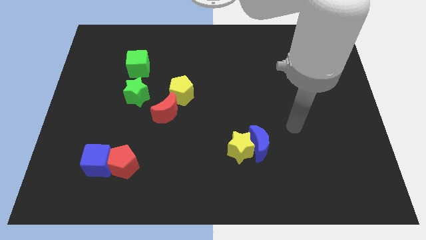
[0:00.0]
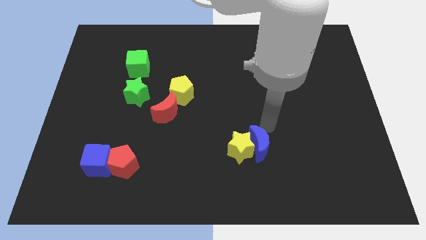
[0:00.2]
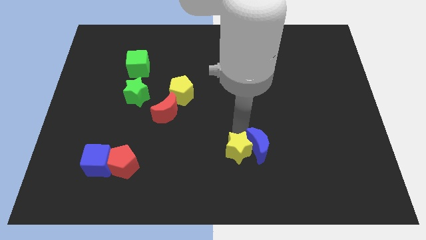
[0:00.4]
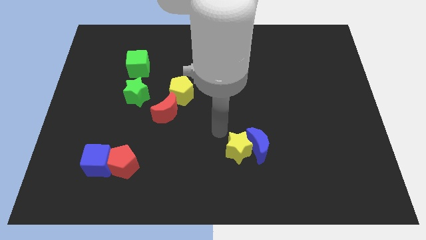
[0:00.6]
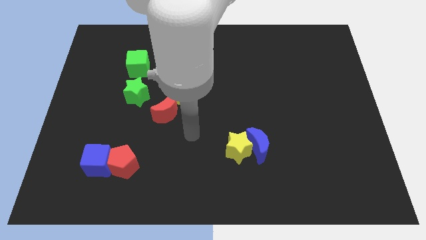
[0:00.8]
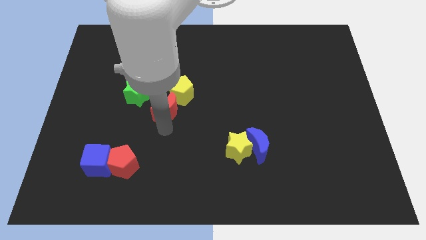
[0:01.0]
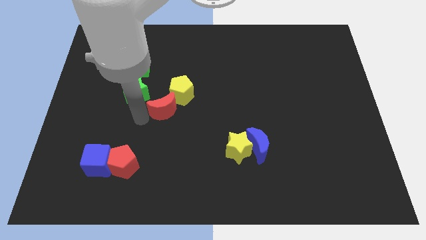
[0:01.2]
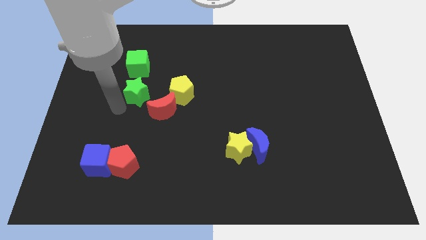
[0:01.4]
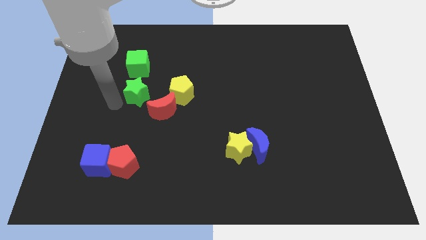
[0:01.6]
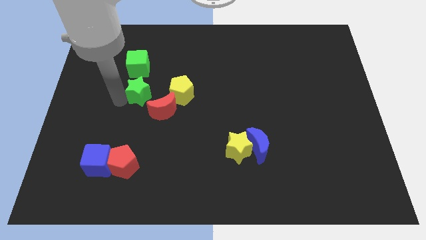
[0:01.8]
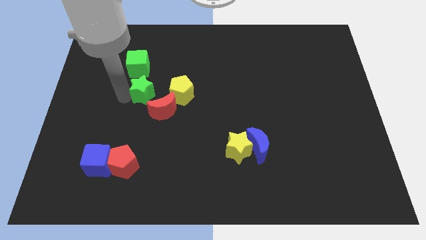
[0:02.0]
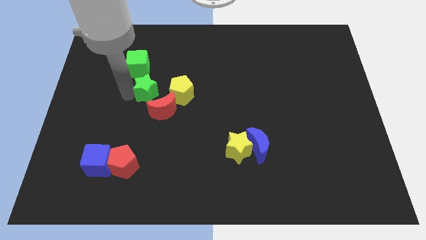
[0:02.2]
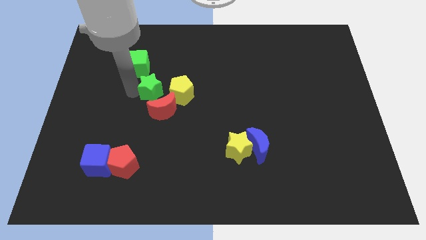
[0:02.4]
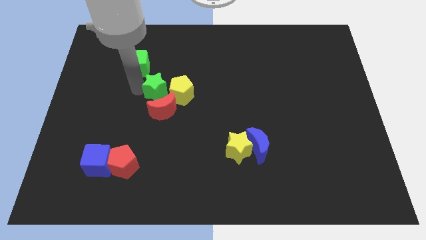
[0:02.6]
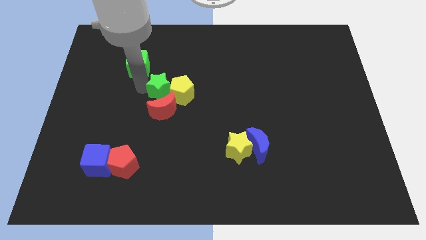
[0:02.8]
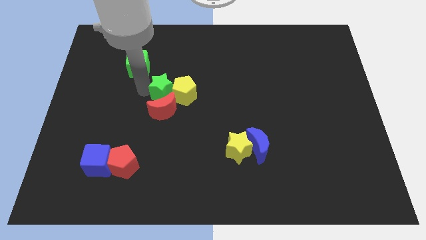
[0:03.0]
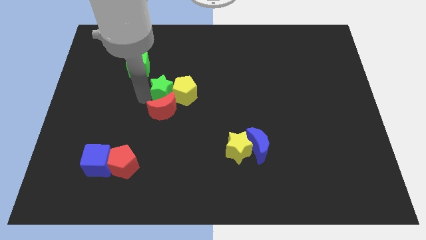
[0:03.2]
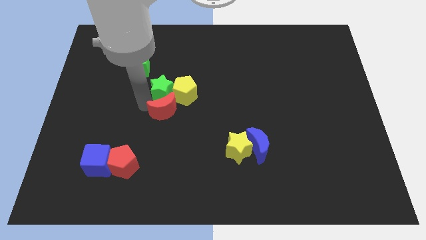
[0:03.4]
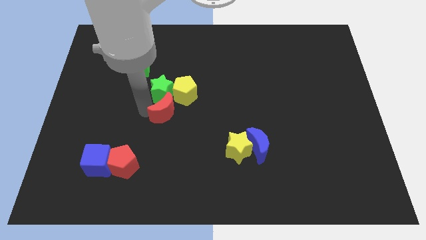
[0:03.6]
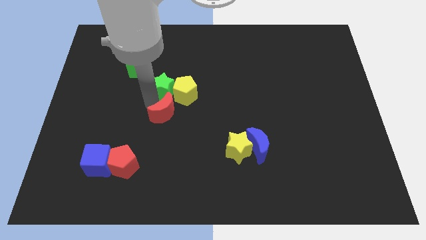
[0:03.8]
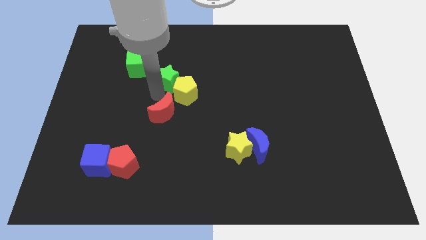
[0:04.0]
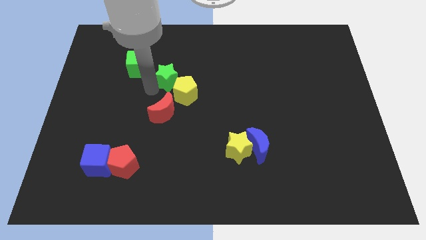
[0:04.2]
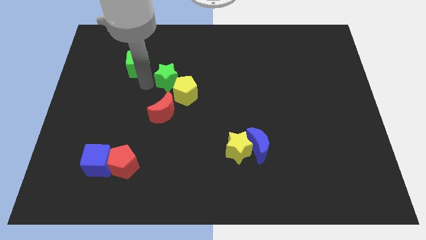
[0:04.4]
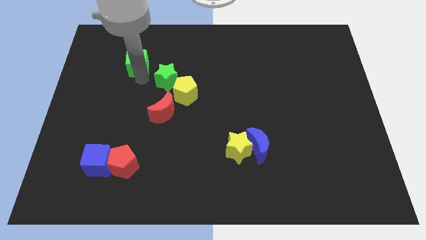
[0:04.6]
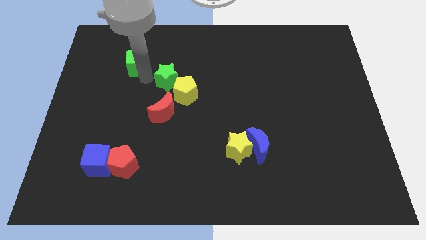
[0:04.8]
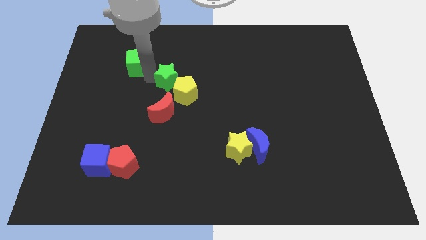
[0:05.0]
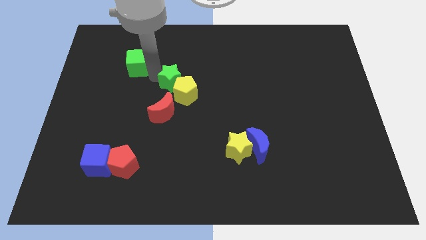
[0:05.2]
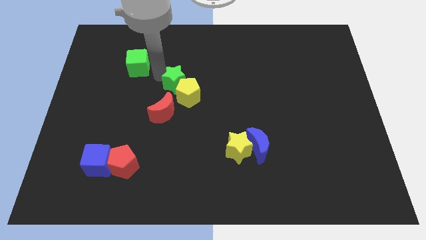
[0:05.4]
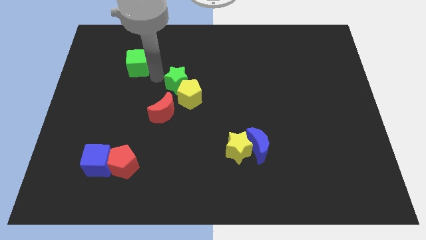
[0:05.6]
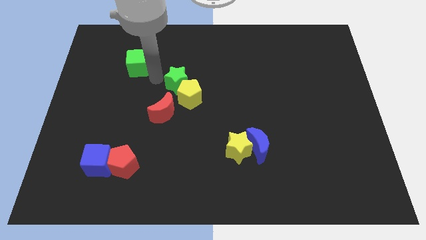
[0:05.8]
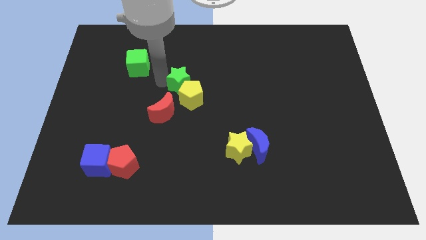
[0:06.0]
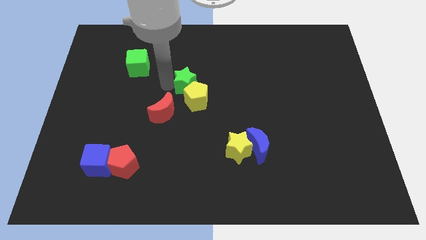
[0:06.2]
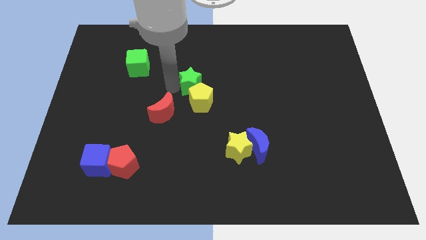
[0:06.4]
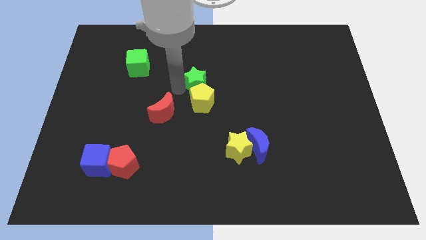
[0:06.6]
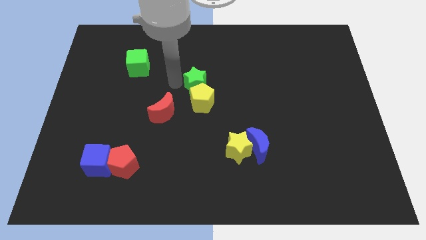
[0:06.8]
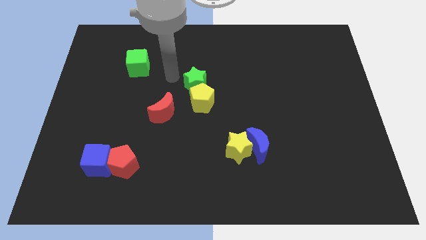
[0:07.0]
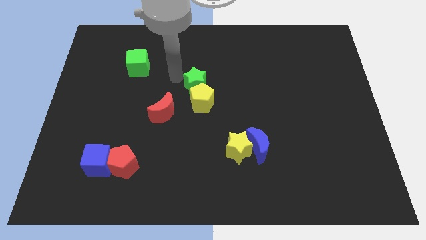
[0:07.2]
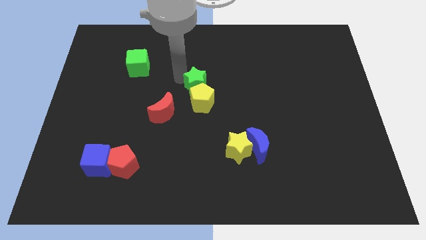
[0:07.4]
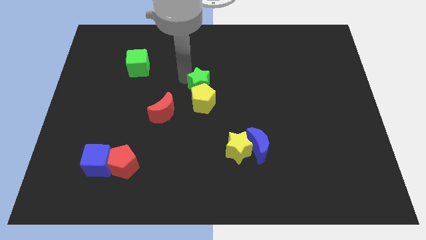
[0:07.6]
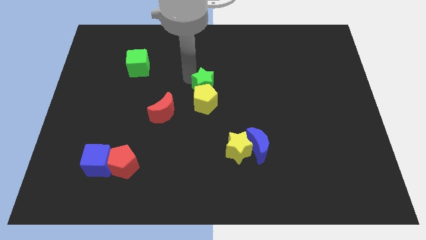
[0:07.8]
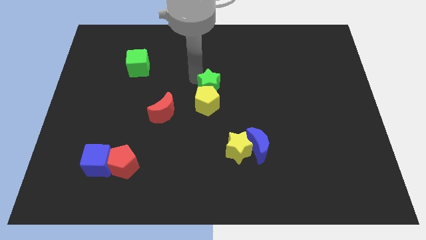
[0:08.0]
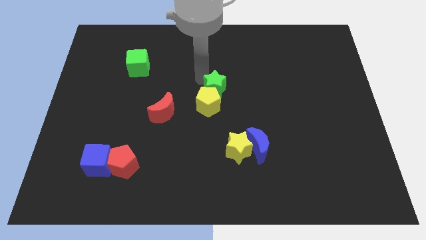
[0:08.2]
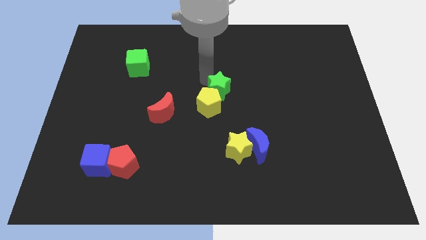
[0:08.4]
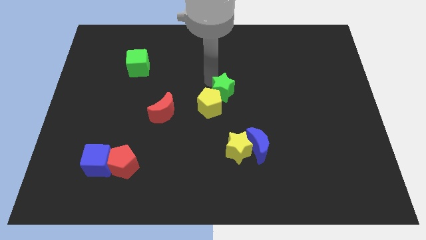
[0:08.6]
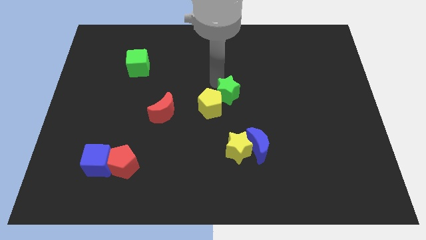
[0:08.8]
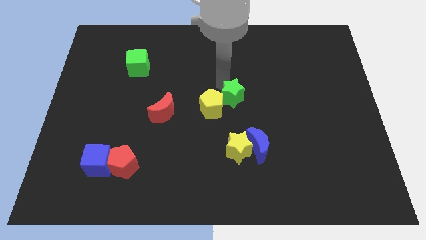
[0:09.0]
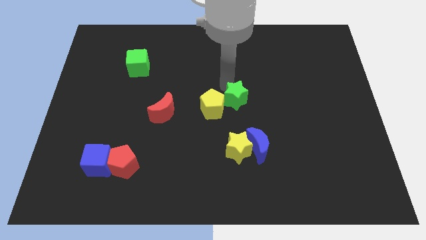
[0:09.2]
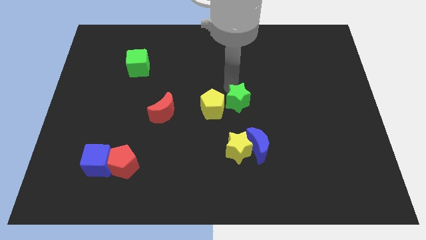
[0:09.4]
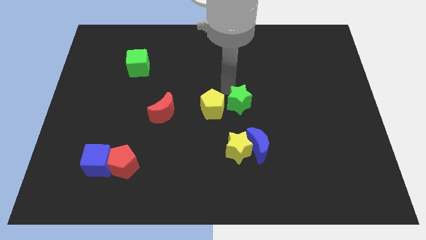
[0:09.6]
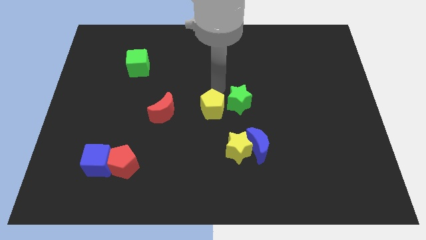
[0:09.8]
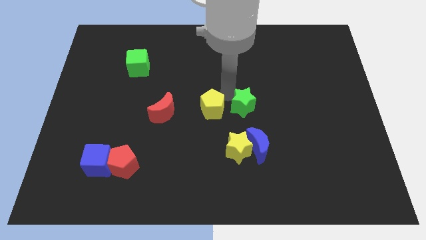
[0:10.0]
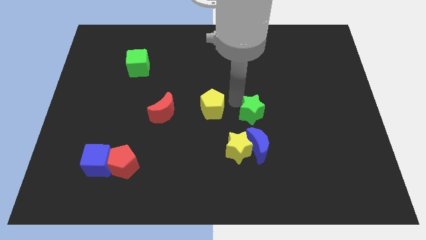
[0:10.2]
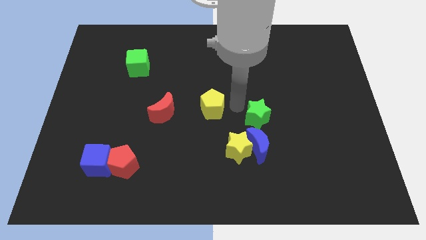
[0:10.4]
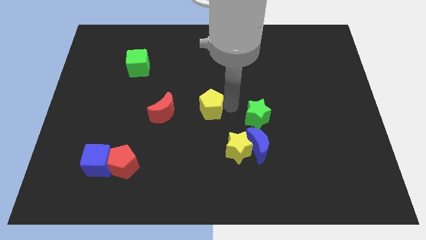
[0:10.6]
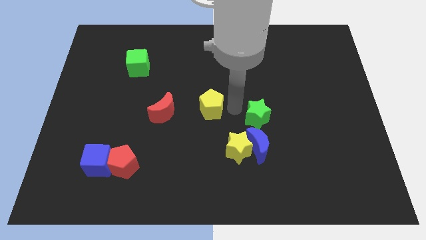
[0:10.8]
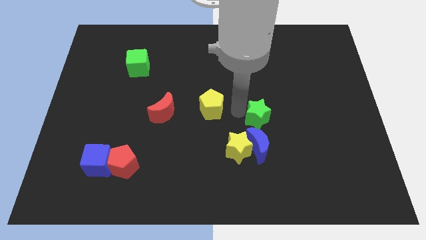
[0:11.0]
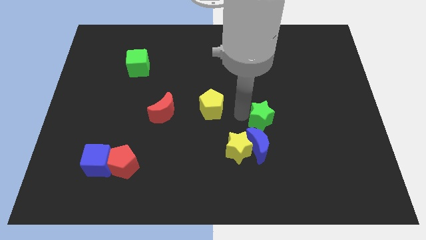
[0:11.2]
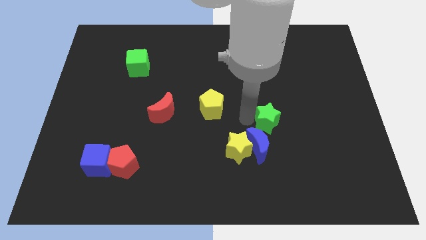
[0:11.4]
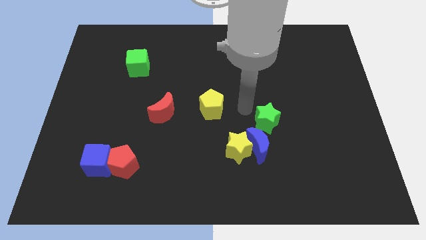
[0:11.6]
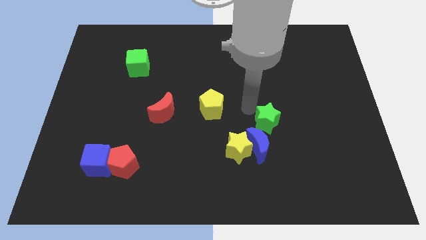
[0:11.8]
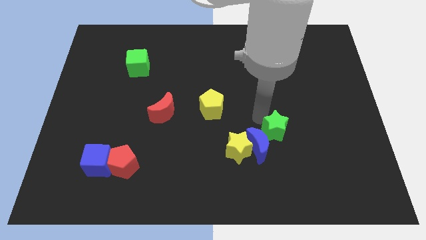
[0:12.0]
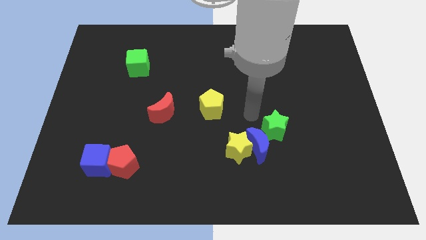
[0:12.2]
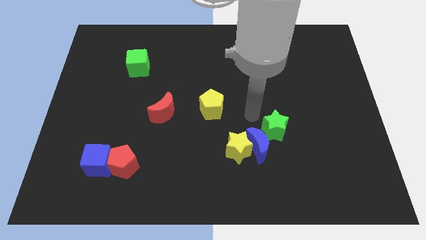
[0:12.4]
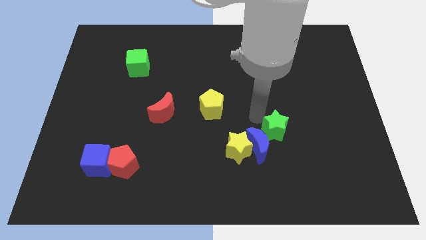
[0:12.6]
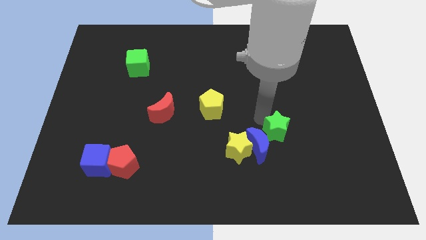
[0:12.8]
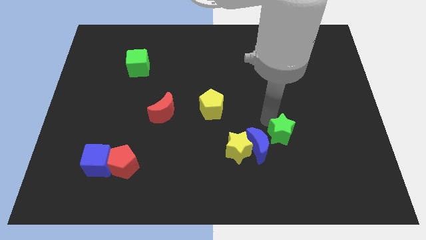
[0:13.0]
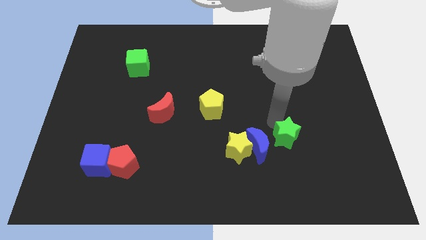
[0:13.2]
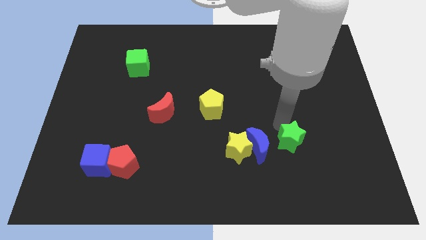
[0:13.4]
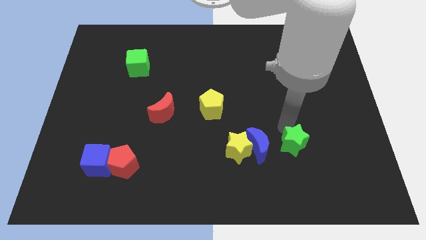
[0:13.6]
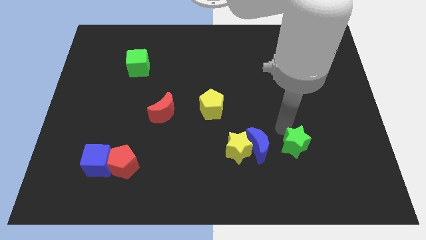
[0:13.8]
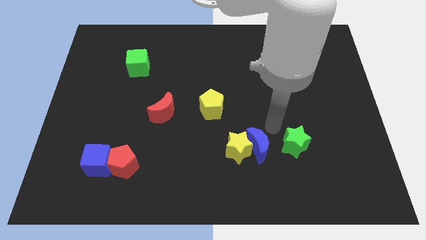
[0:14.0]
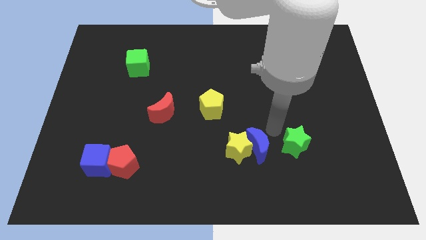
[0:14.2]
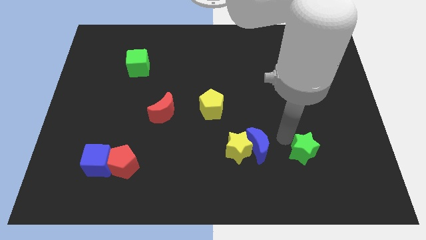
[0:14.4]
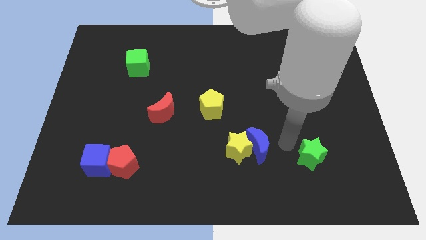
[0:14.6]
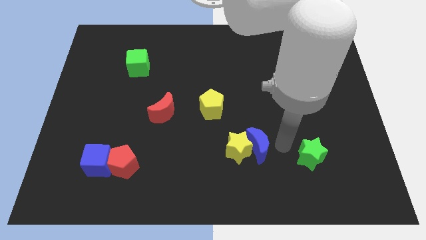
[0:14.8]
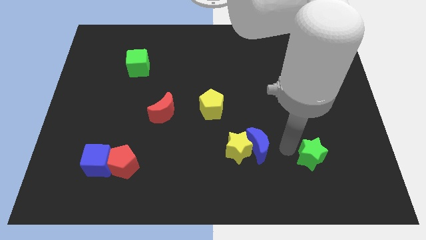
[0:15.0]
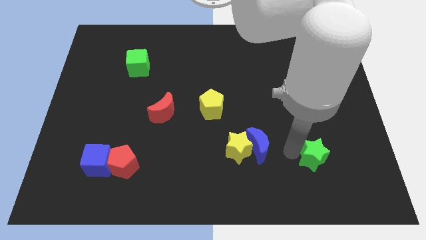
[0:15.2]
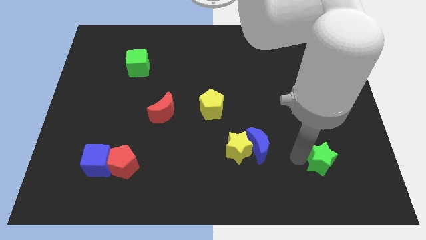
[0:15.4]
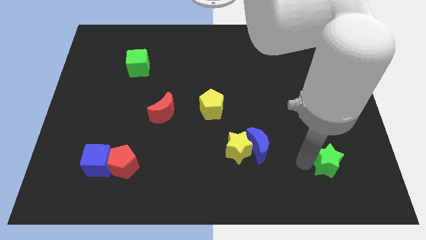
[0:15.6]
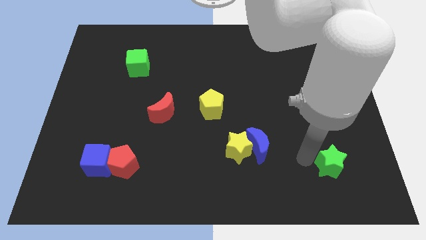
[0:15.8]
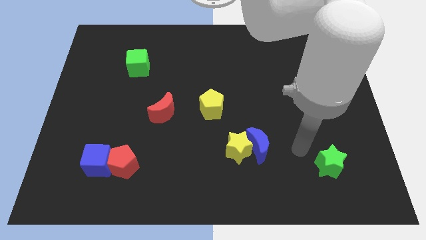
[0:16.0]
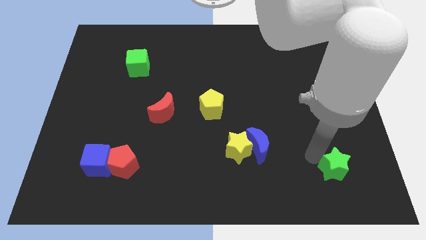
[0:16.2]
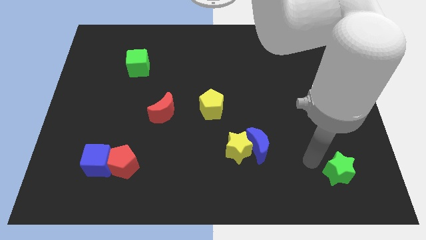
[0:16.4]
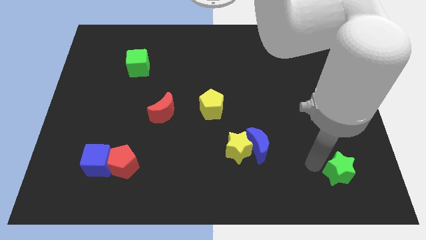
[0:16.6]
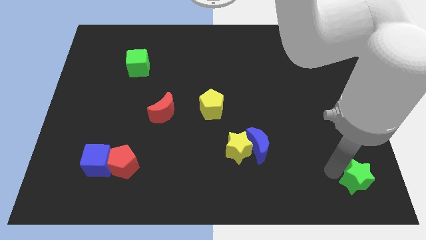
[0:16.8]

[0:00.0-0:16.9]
put the green star to the bottom right corner
